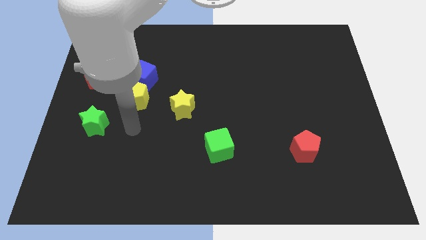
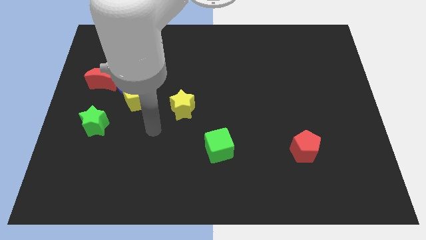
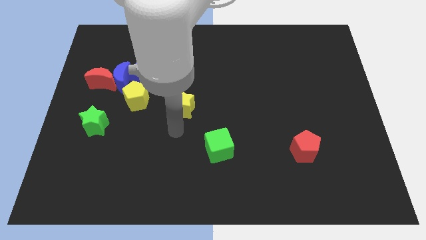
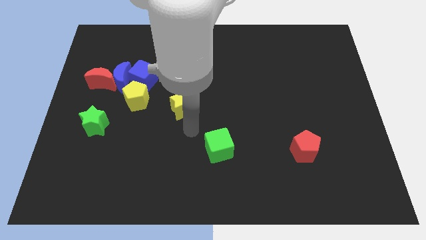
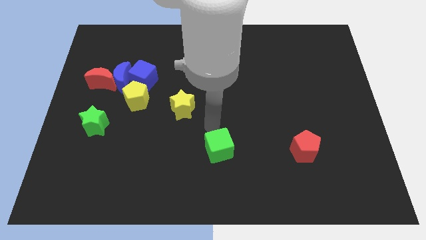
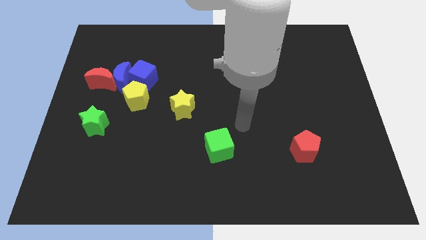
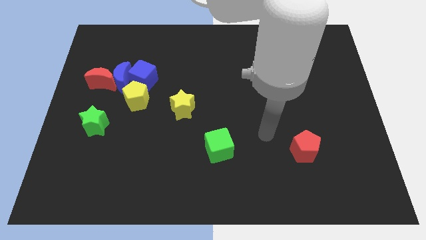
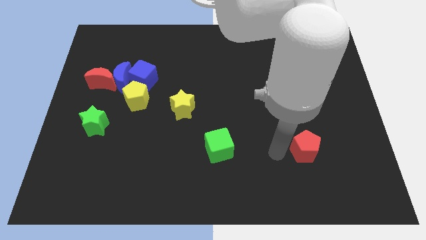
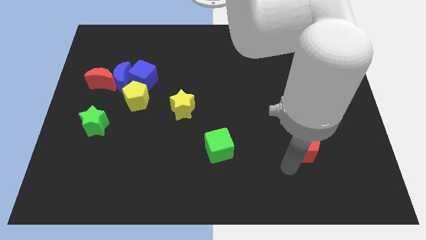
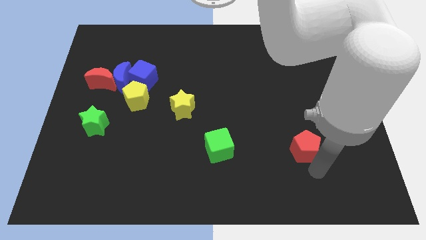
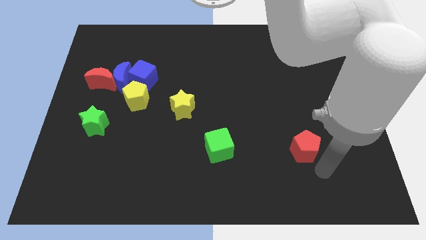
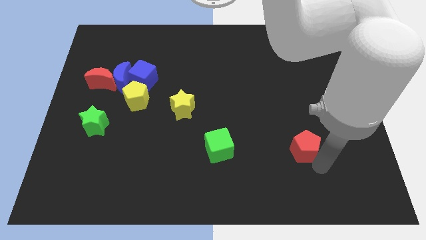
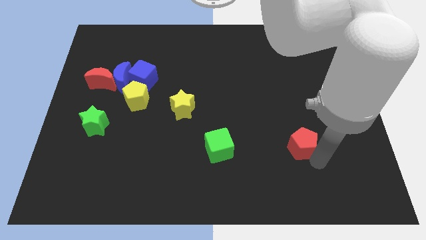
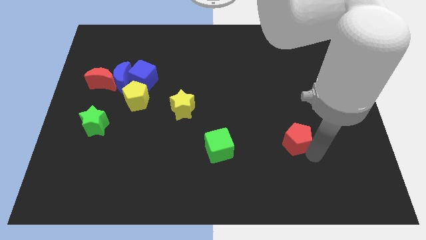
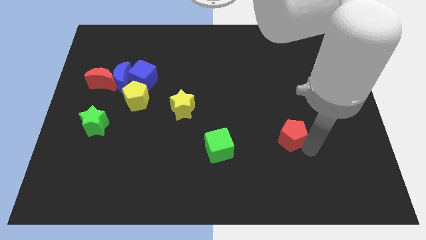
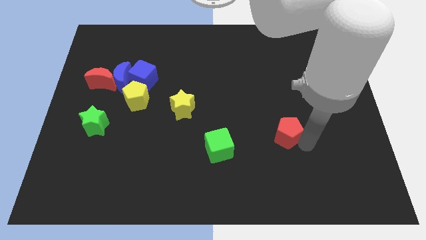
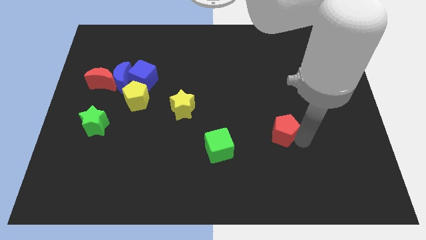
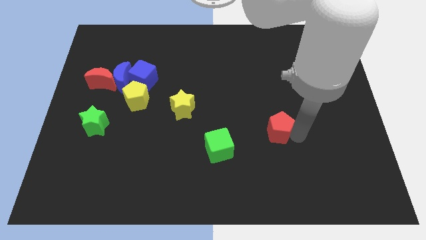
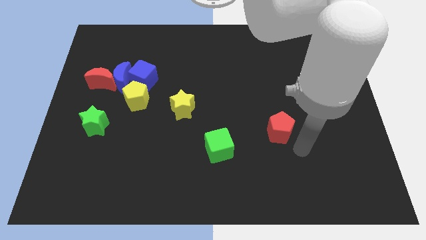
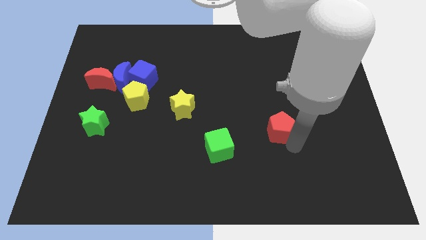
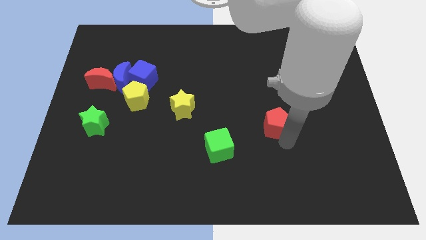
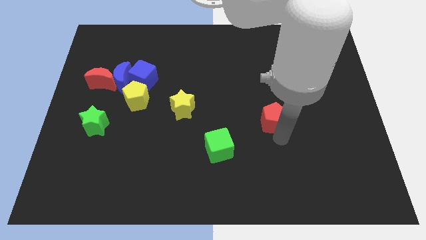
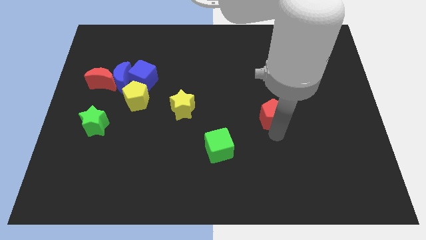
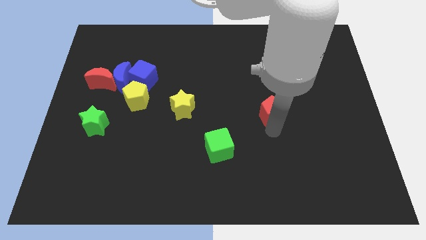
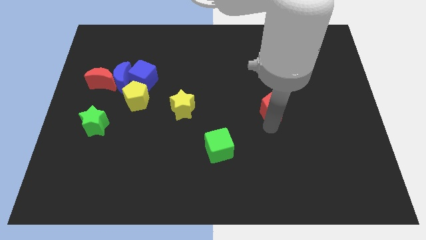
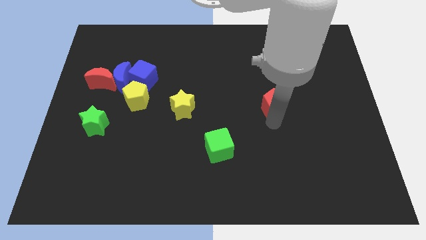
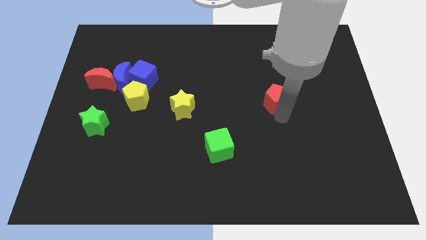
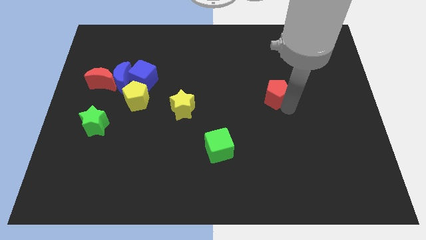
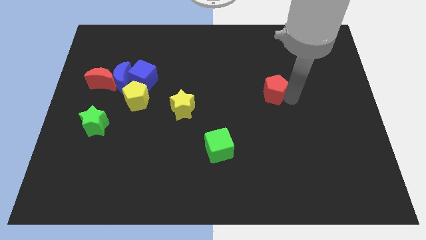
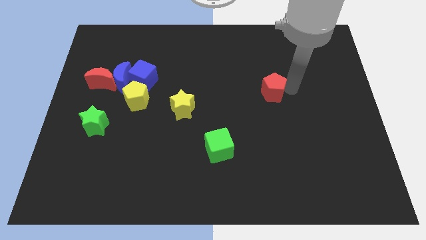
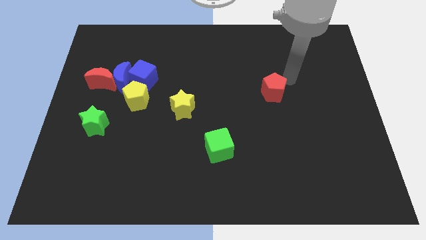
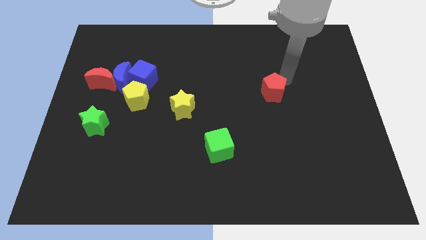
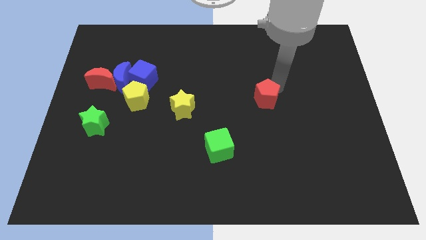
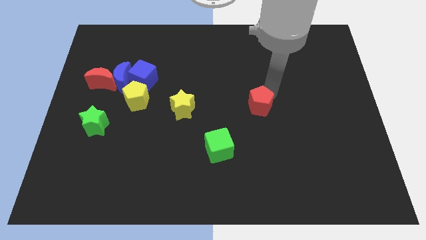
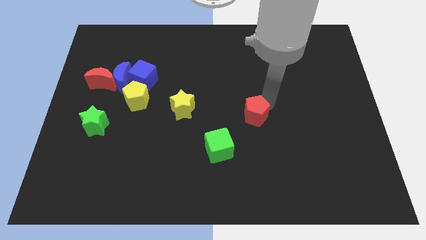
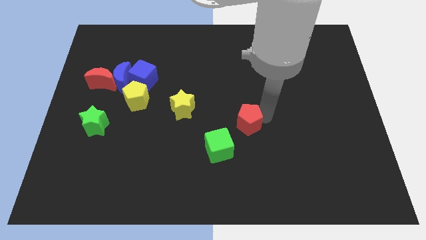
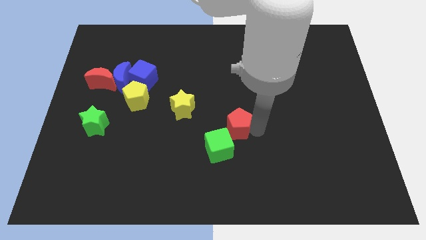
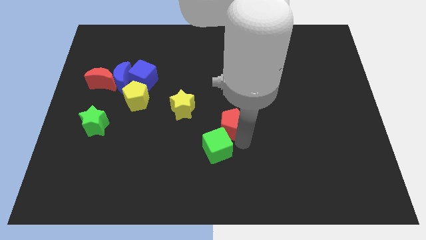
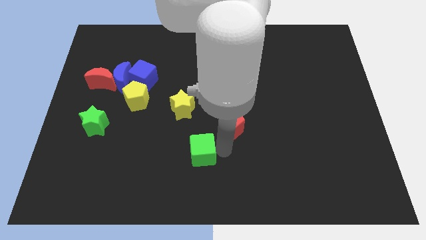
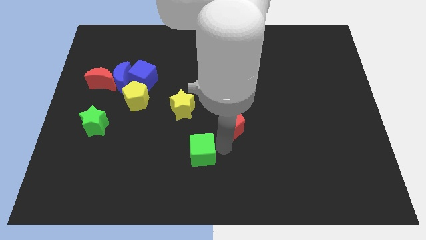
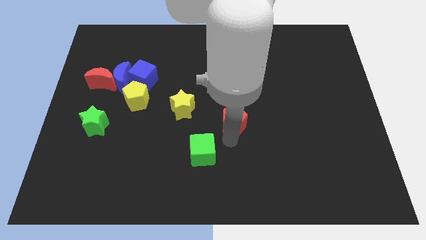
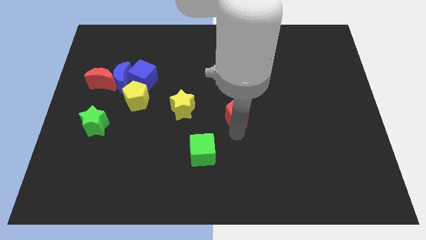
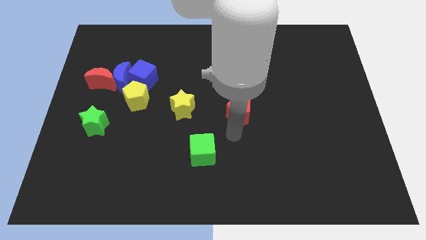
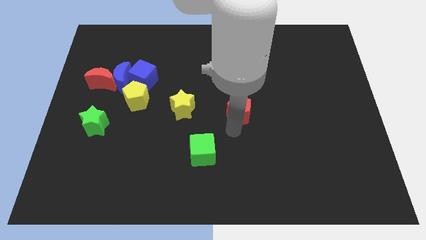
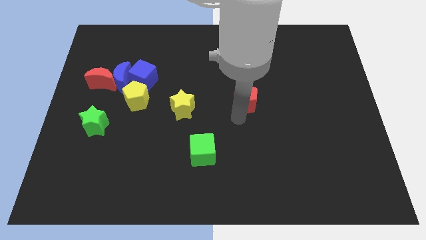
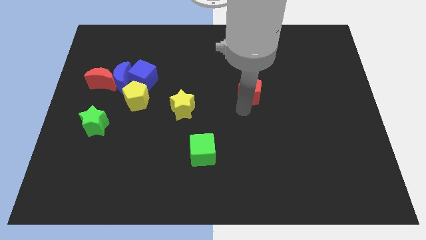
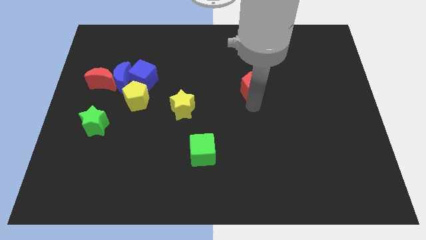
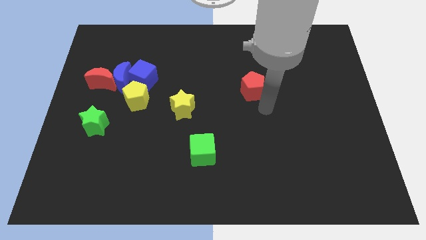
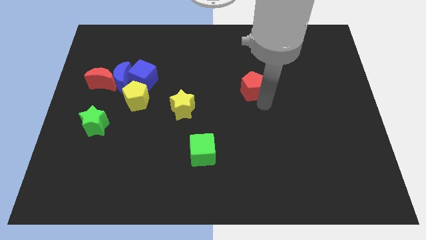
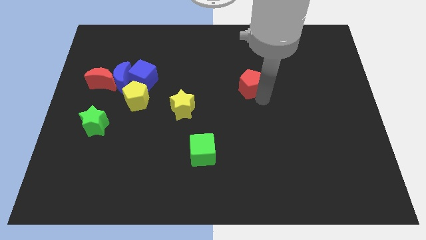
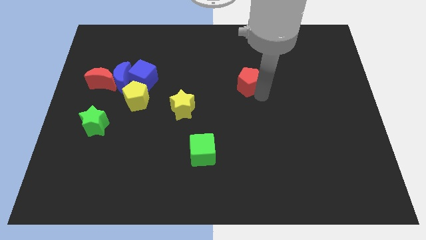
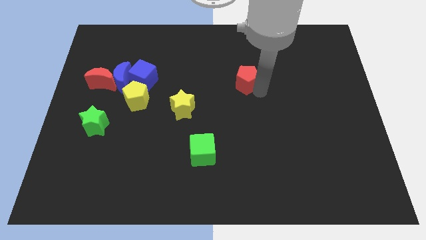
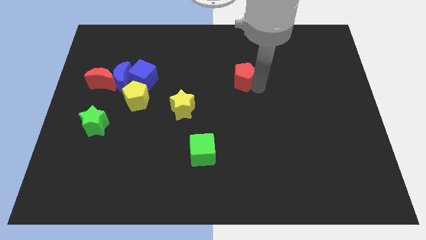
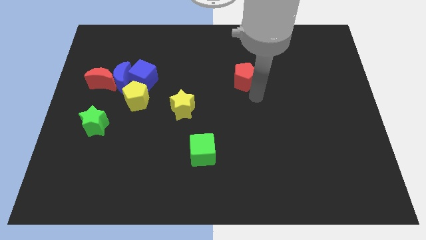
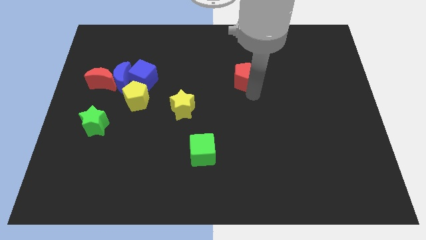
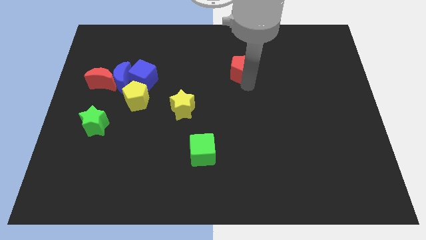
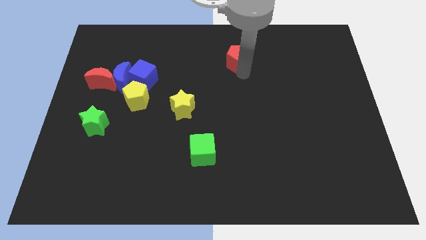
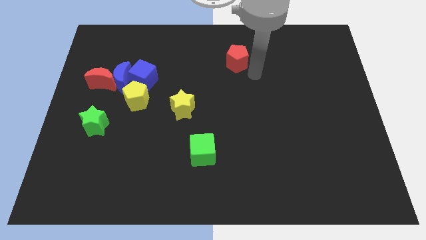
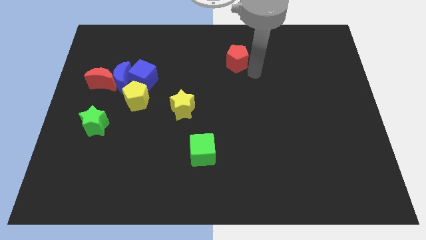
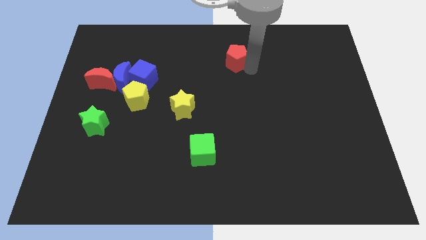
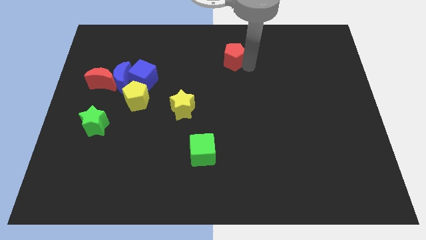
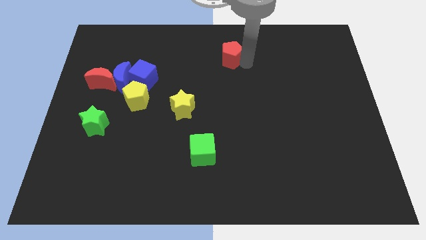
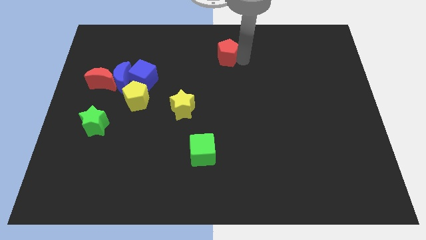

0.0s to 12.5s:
put the red pentagon to the towards your base

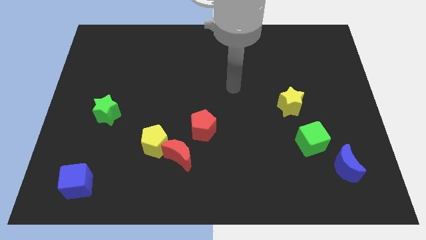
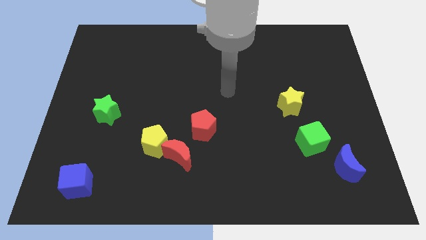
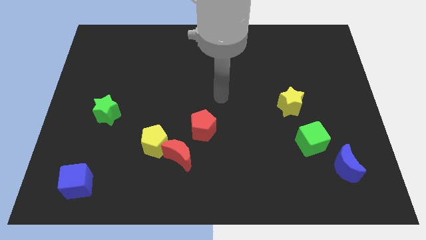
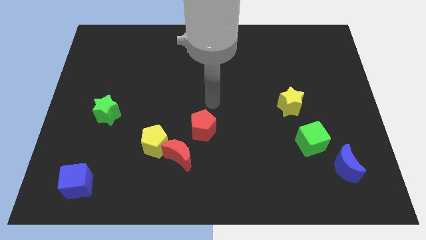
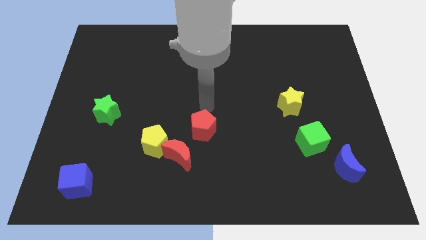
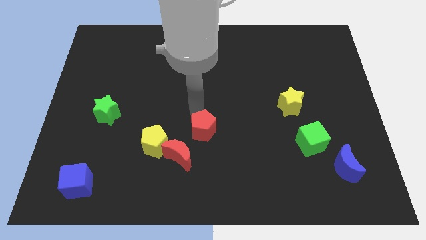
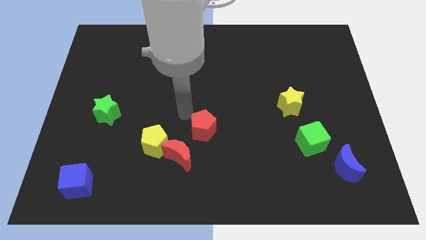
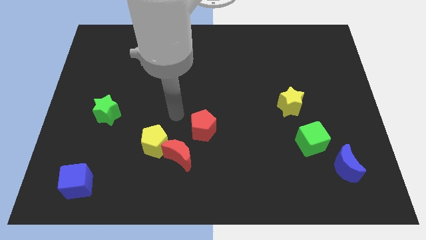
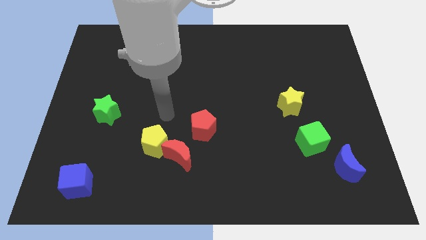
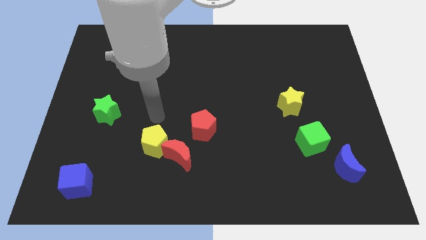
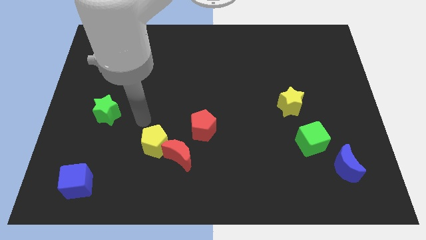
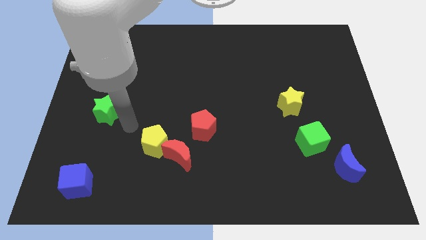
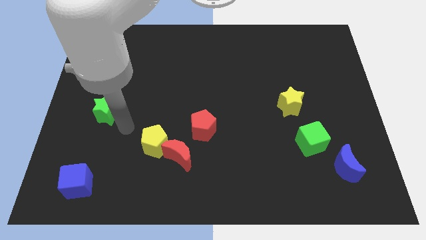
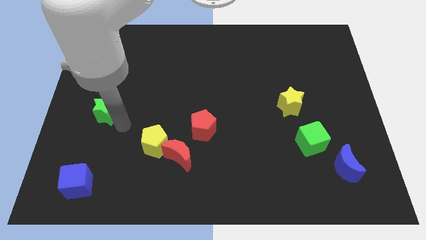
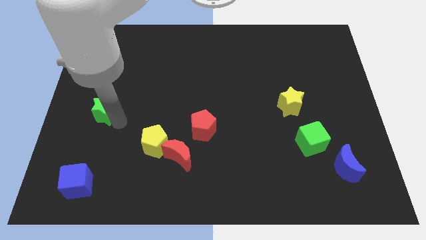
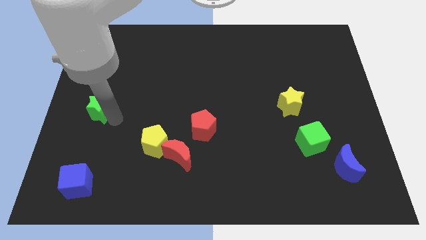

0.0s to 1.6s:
put the green star to the left side
